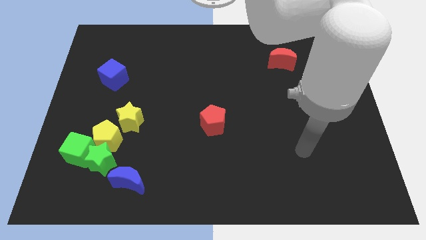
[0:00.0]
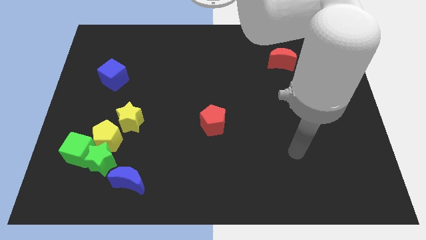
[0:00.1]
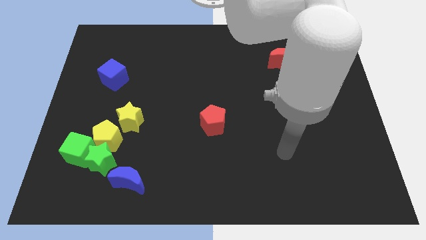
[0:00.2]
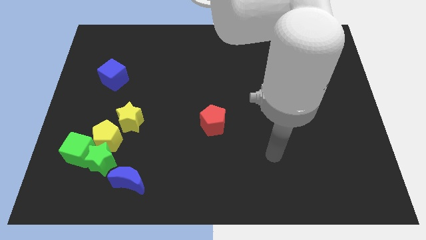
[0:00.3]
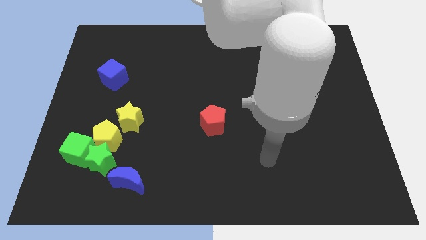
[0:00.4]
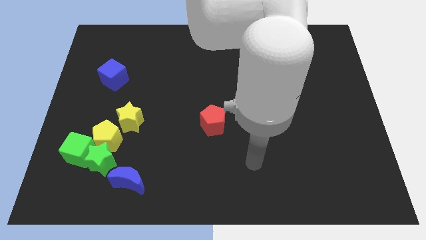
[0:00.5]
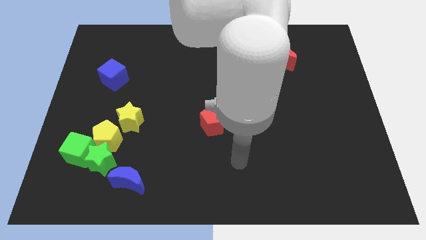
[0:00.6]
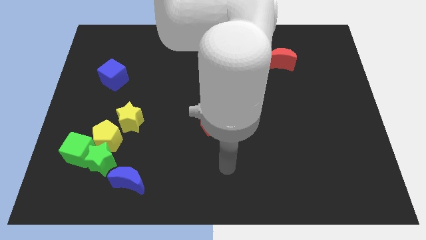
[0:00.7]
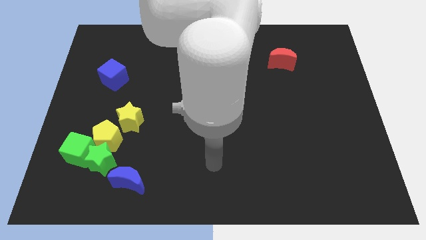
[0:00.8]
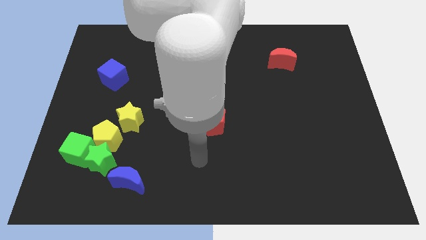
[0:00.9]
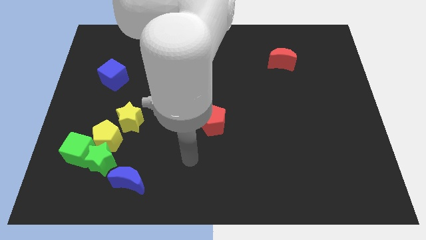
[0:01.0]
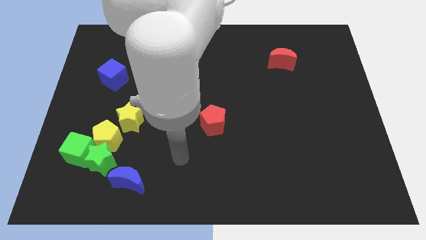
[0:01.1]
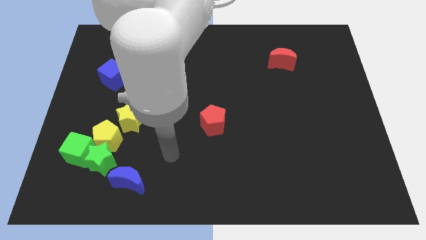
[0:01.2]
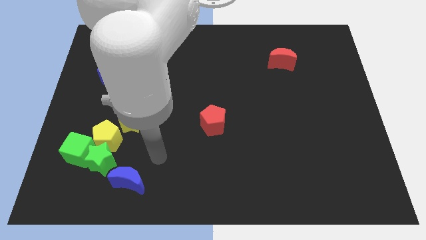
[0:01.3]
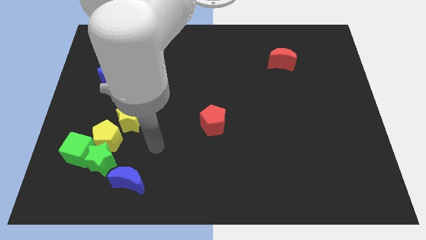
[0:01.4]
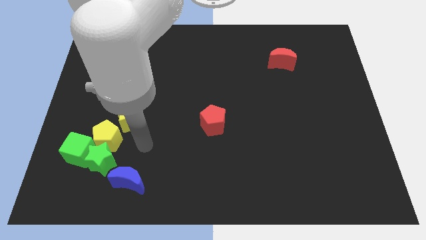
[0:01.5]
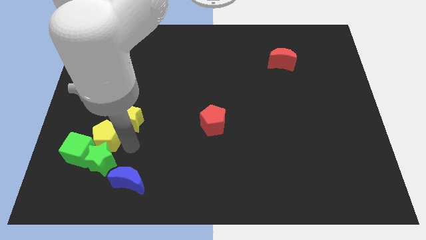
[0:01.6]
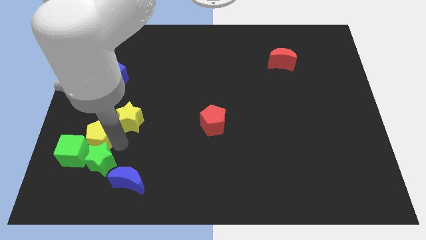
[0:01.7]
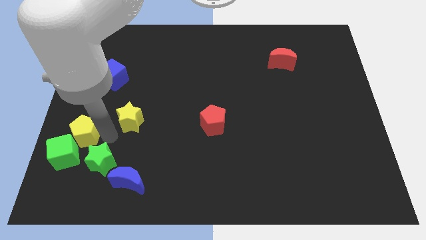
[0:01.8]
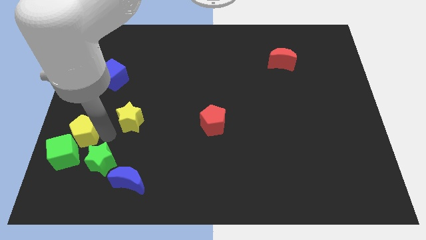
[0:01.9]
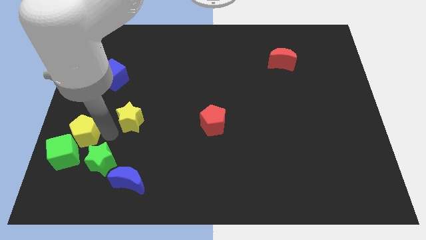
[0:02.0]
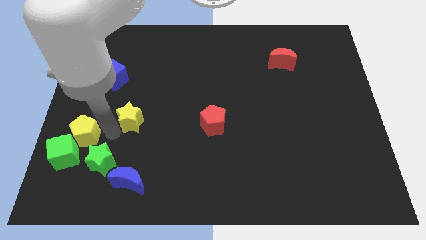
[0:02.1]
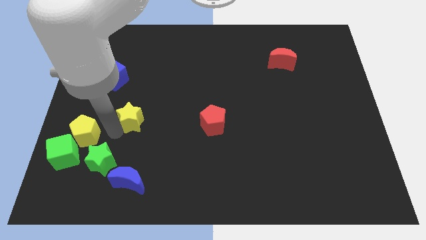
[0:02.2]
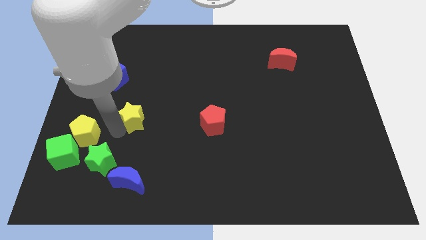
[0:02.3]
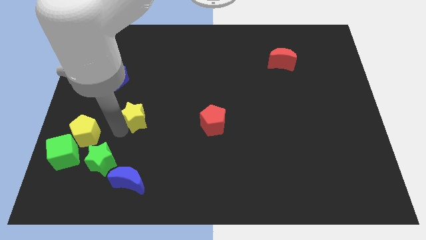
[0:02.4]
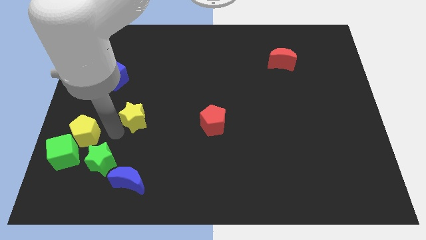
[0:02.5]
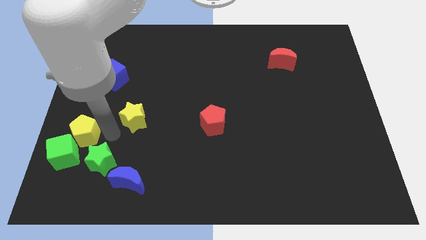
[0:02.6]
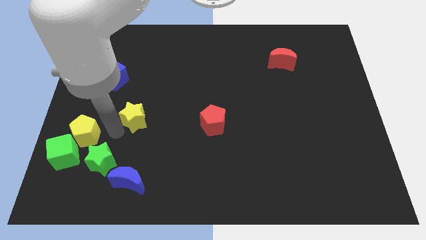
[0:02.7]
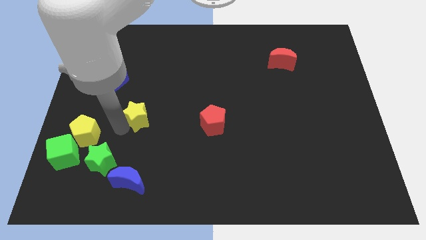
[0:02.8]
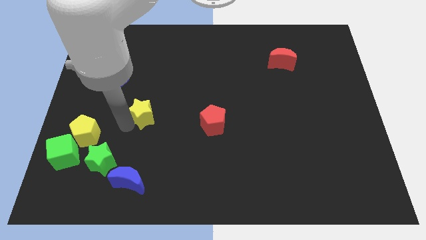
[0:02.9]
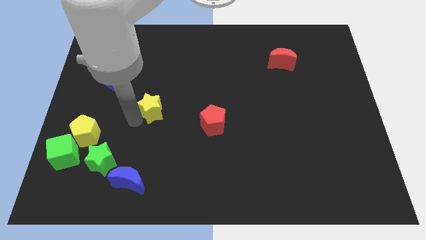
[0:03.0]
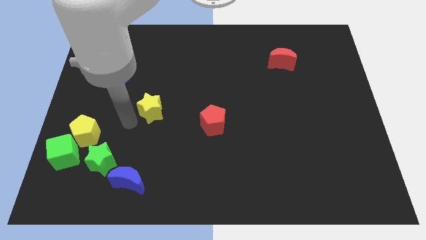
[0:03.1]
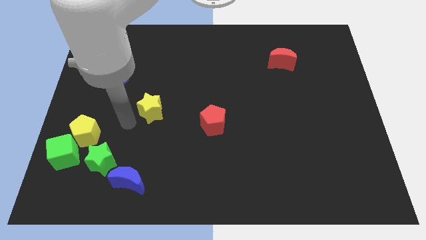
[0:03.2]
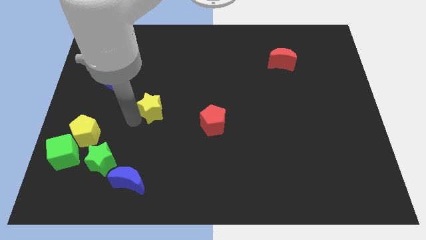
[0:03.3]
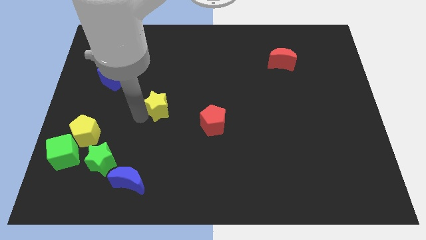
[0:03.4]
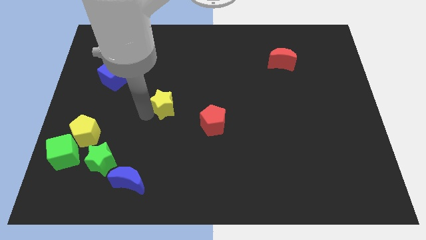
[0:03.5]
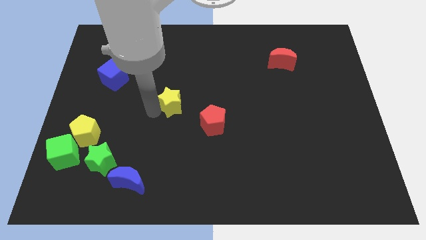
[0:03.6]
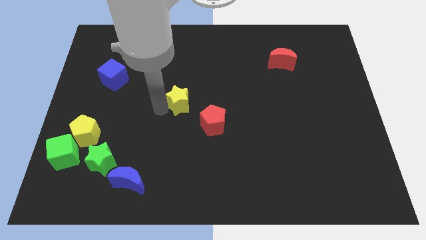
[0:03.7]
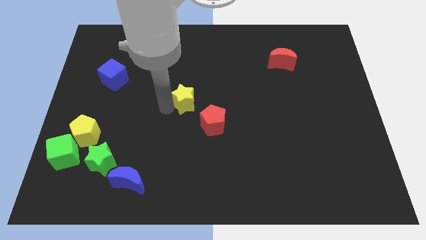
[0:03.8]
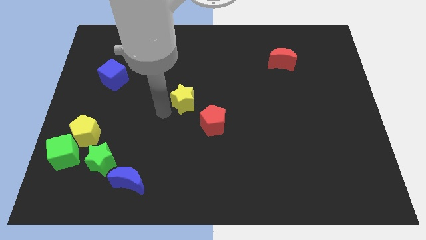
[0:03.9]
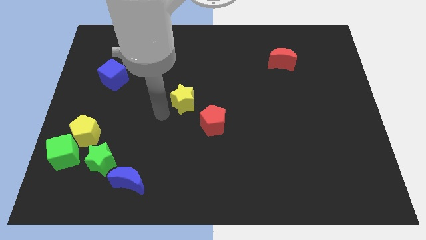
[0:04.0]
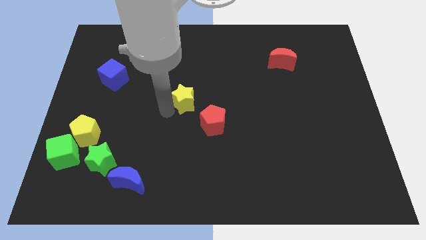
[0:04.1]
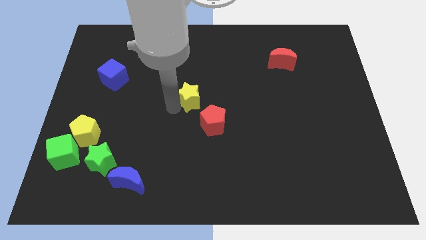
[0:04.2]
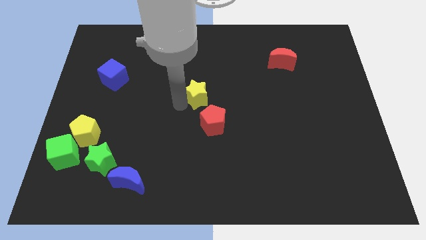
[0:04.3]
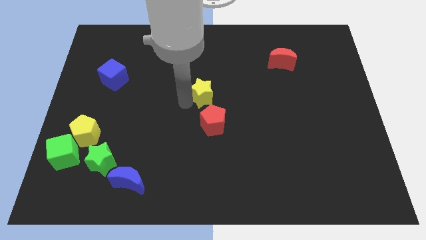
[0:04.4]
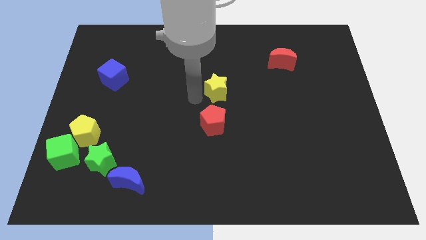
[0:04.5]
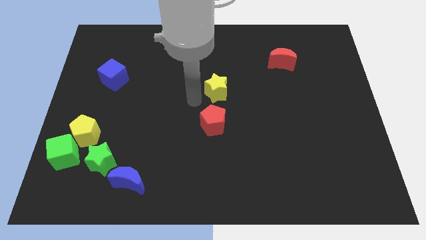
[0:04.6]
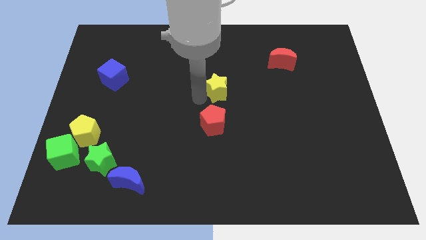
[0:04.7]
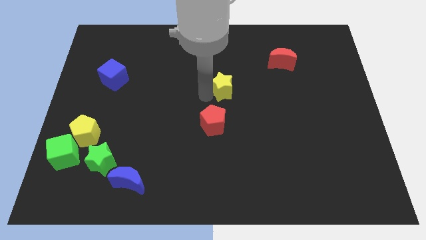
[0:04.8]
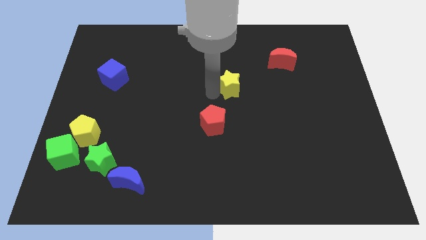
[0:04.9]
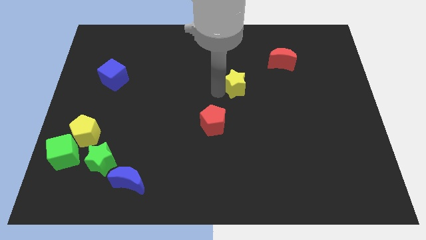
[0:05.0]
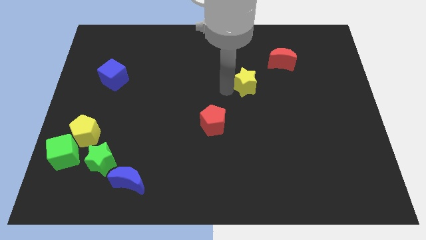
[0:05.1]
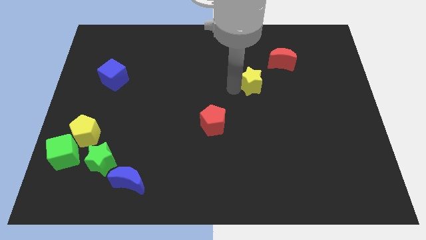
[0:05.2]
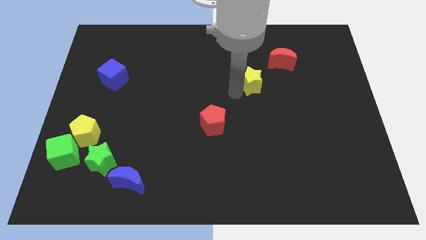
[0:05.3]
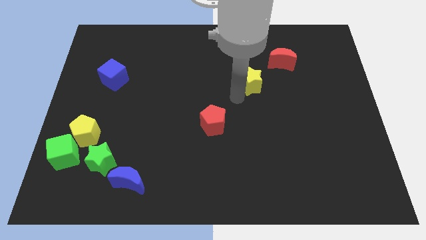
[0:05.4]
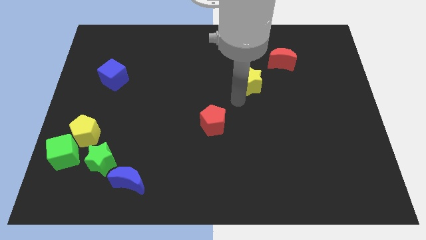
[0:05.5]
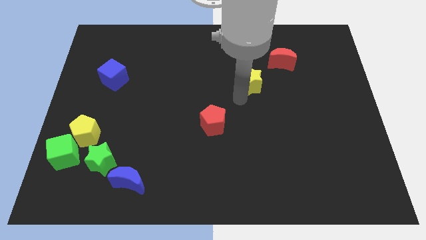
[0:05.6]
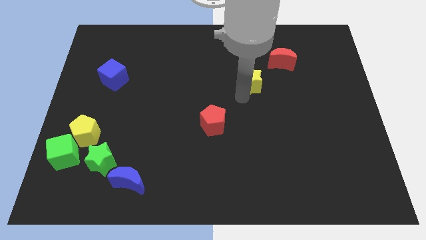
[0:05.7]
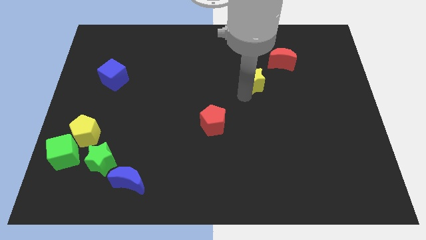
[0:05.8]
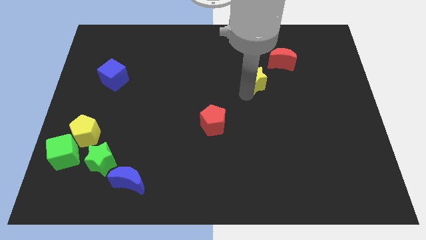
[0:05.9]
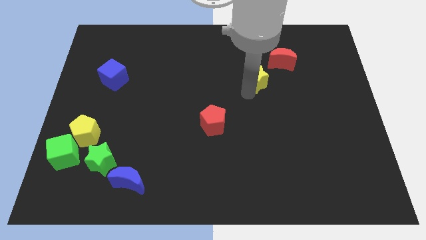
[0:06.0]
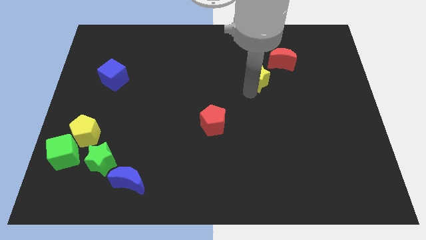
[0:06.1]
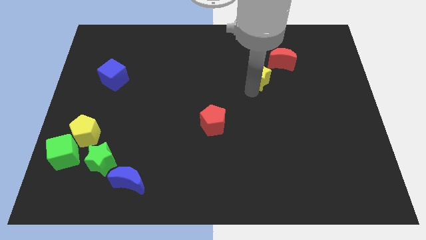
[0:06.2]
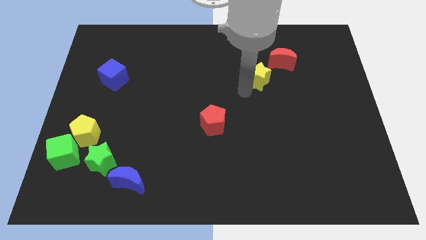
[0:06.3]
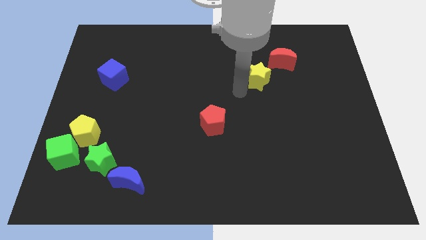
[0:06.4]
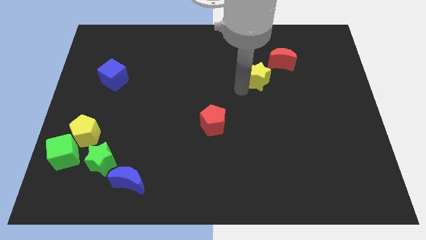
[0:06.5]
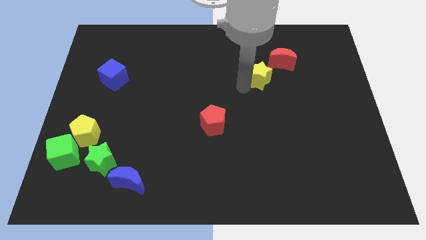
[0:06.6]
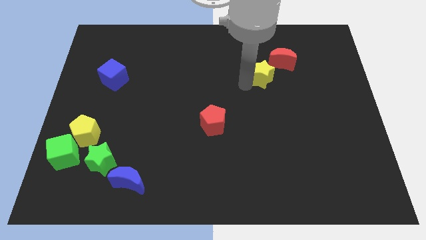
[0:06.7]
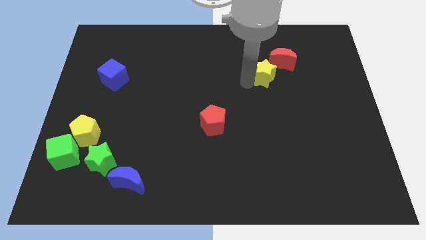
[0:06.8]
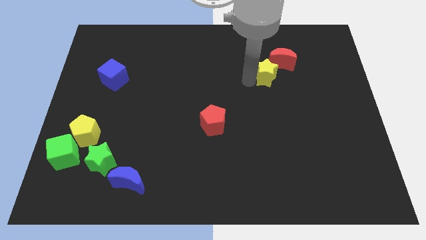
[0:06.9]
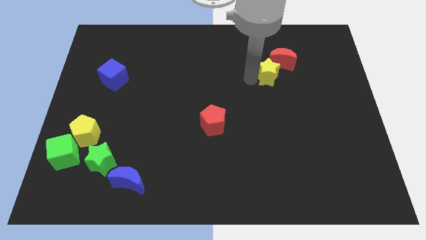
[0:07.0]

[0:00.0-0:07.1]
push the yellow star close to the red moon

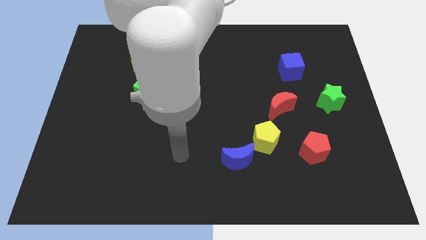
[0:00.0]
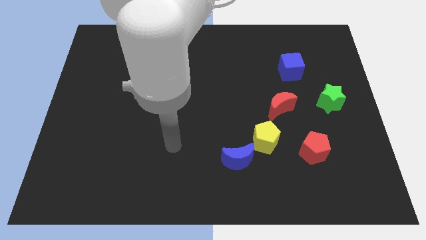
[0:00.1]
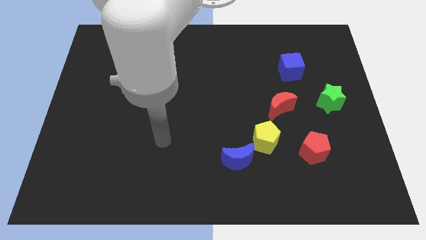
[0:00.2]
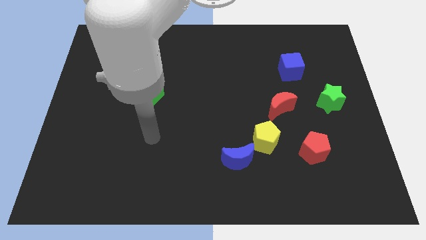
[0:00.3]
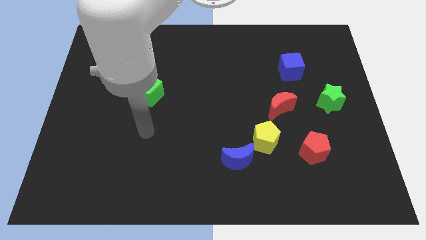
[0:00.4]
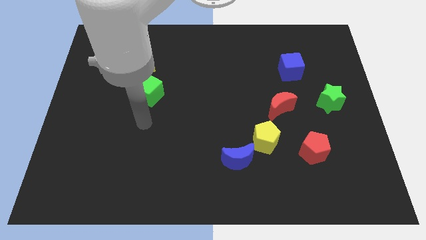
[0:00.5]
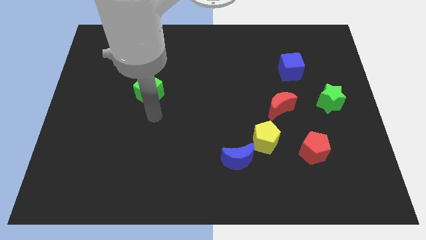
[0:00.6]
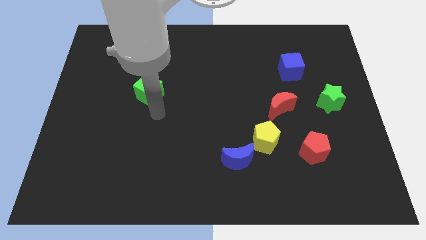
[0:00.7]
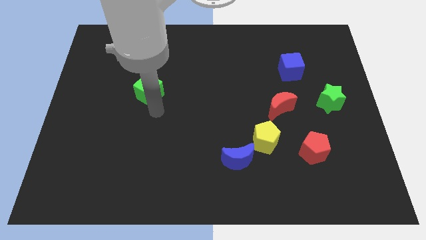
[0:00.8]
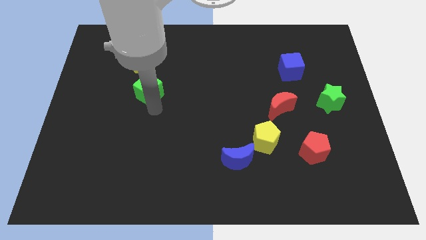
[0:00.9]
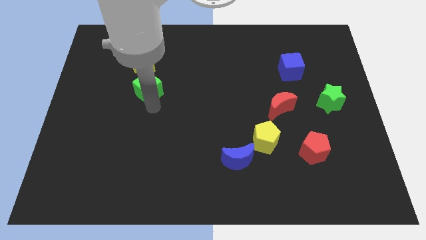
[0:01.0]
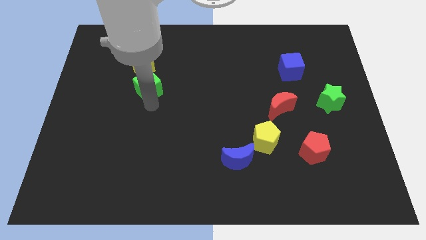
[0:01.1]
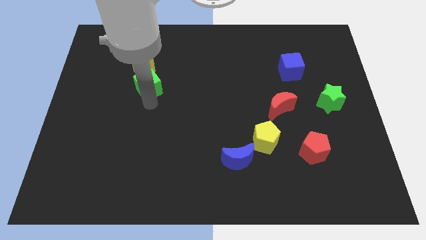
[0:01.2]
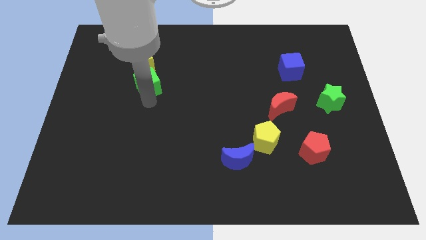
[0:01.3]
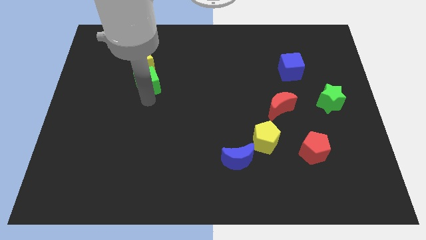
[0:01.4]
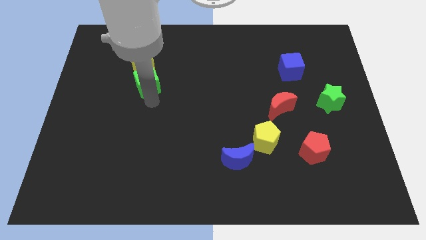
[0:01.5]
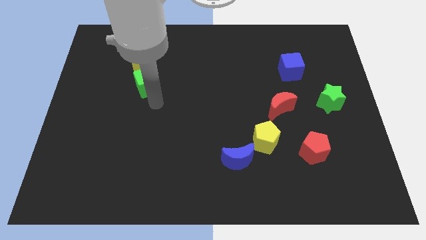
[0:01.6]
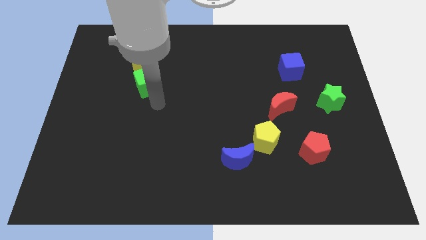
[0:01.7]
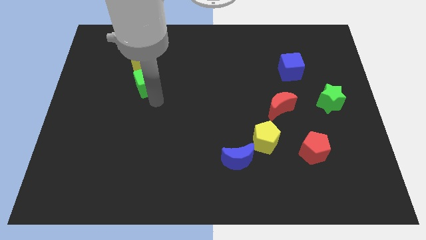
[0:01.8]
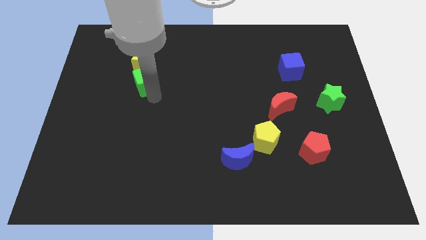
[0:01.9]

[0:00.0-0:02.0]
slide the green cube next to the yellow star
